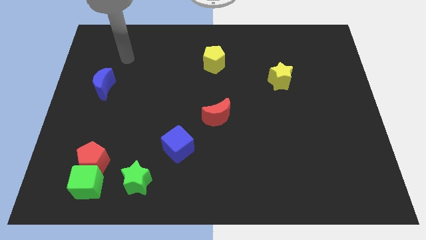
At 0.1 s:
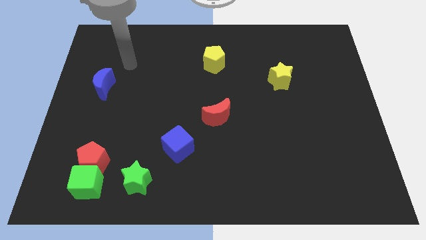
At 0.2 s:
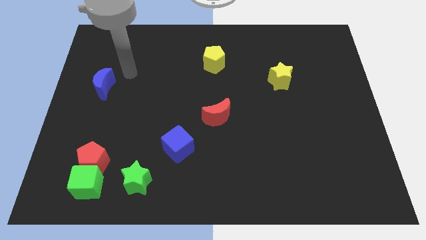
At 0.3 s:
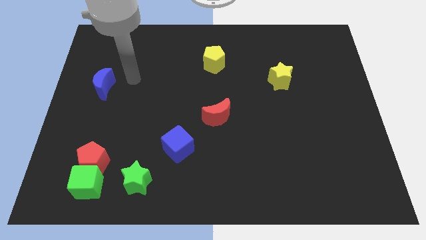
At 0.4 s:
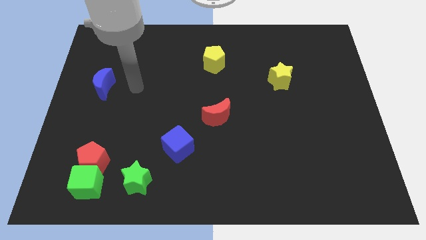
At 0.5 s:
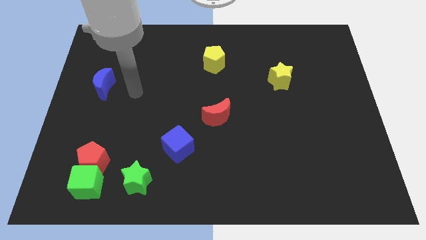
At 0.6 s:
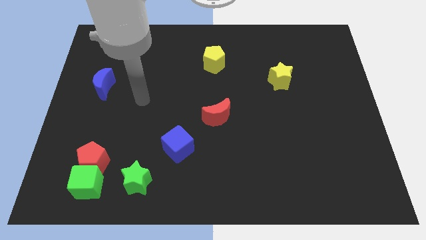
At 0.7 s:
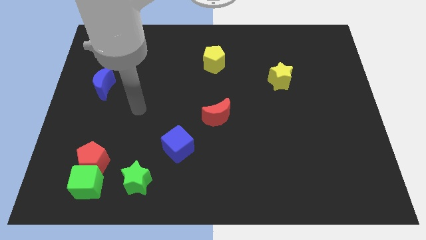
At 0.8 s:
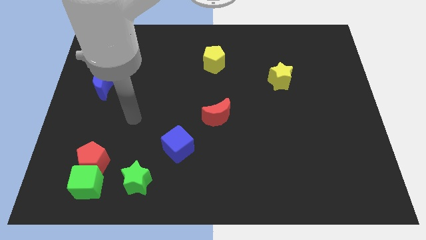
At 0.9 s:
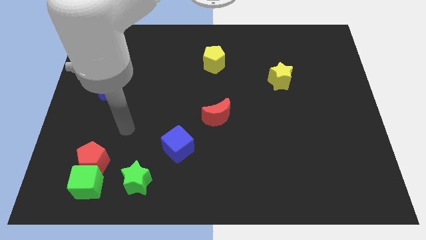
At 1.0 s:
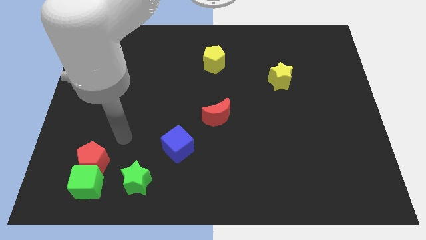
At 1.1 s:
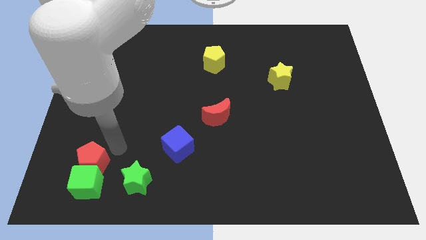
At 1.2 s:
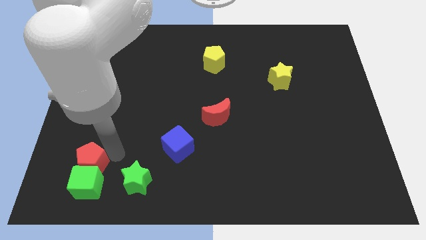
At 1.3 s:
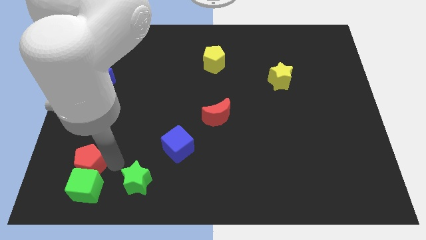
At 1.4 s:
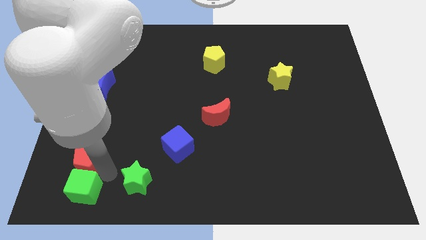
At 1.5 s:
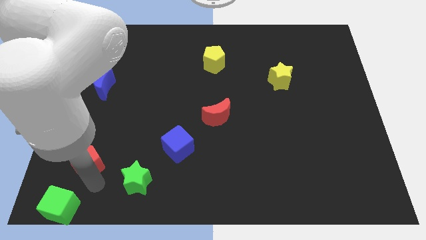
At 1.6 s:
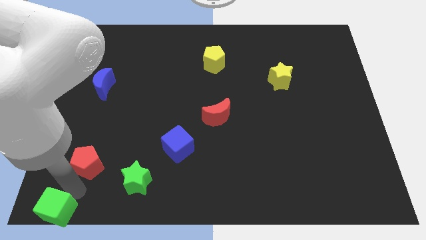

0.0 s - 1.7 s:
move the red pentagon away from the green cube

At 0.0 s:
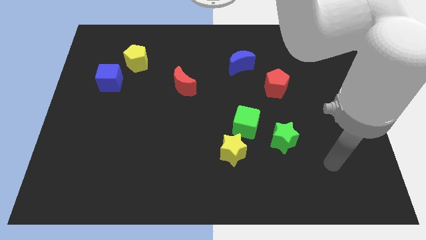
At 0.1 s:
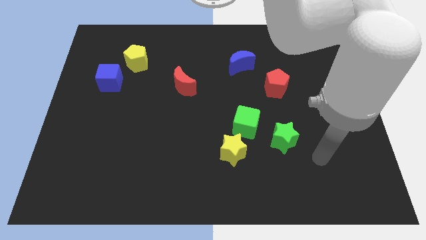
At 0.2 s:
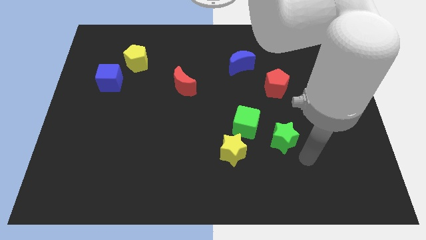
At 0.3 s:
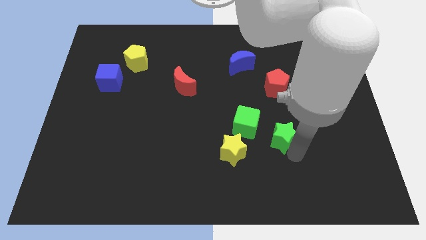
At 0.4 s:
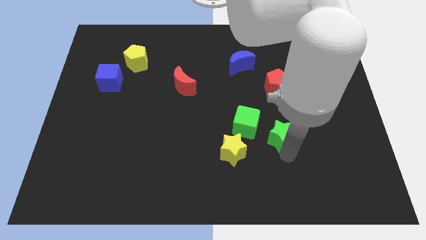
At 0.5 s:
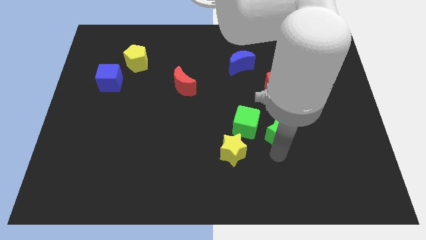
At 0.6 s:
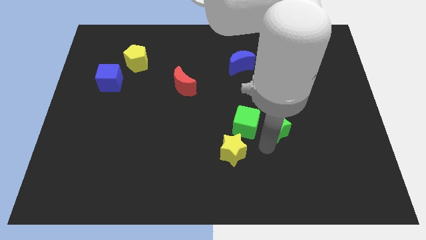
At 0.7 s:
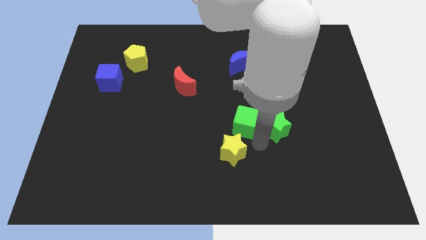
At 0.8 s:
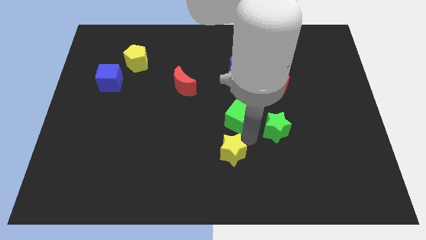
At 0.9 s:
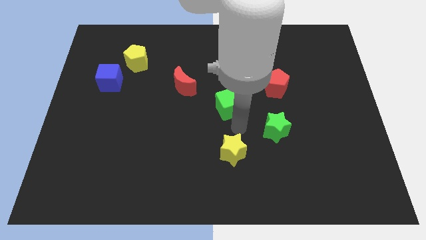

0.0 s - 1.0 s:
move the yellow star away from the green cube

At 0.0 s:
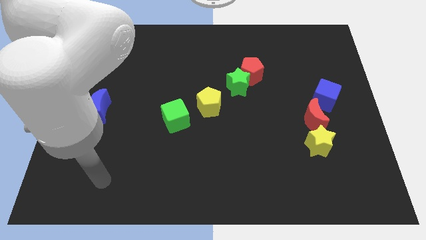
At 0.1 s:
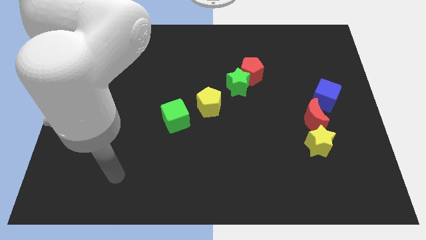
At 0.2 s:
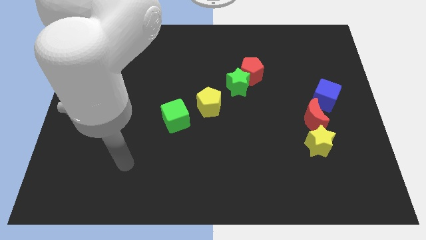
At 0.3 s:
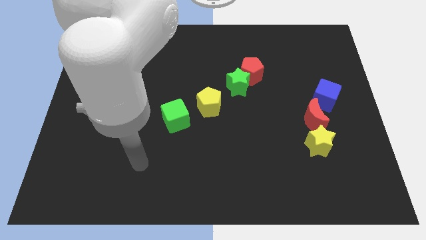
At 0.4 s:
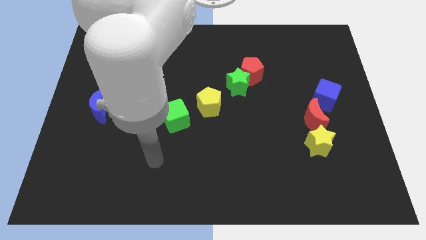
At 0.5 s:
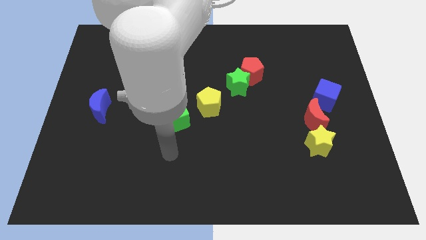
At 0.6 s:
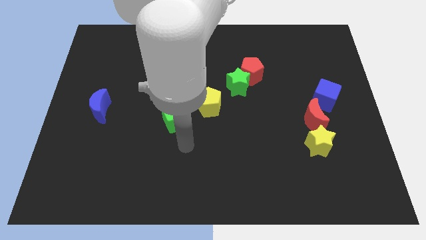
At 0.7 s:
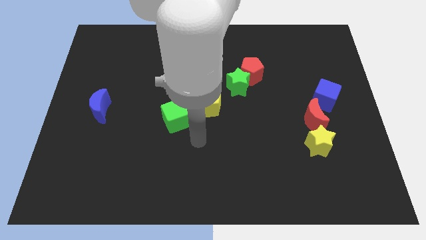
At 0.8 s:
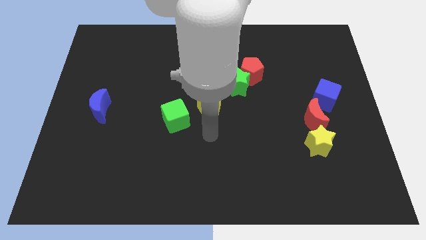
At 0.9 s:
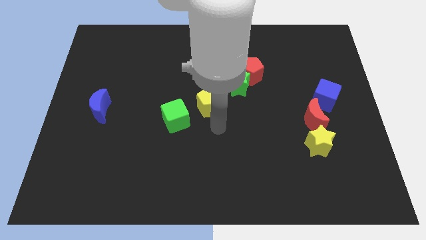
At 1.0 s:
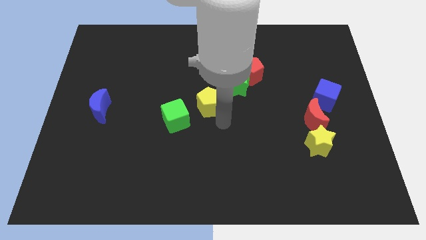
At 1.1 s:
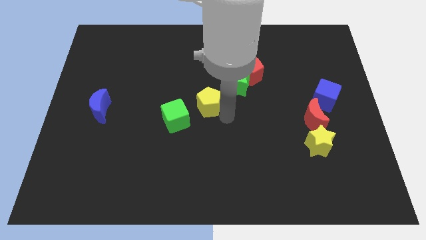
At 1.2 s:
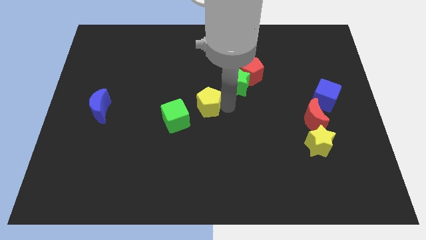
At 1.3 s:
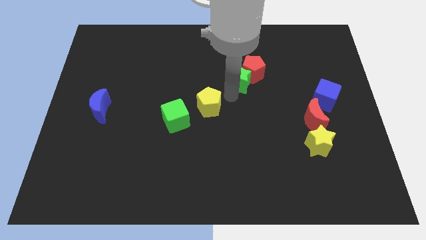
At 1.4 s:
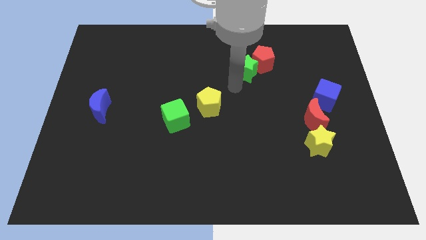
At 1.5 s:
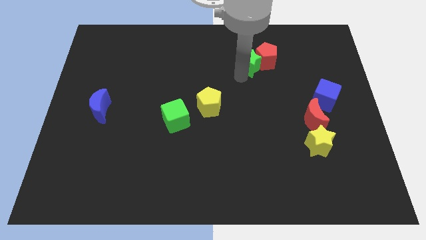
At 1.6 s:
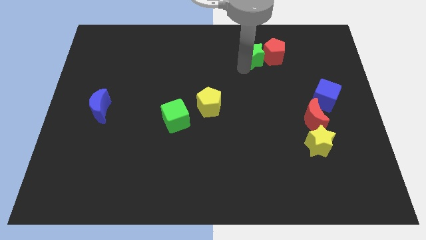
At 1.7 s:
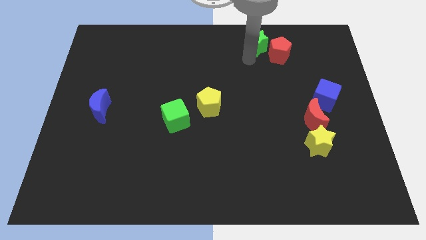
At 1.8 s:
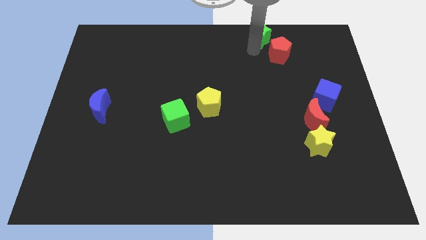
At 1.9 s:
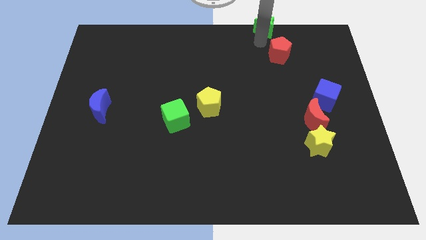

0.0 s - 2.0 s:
pull the red pentagon apart from the green star

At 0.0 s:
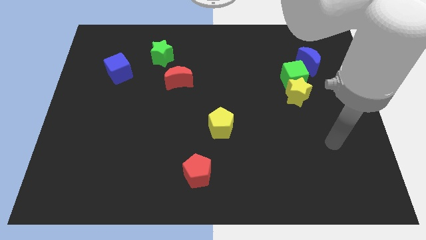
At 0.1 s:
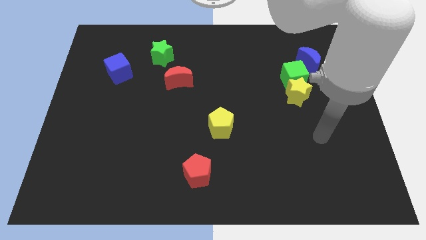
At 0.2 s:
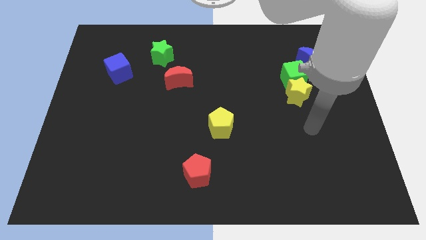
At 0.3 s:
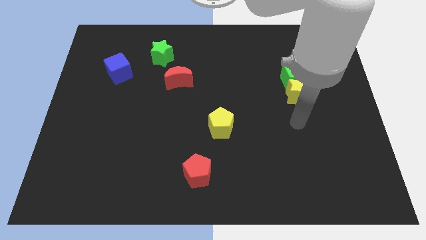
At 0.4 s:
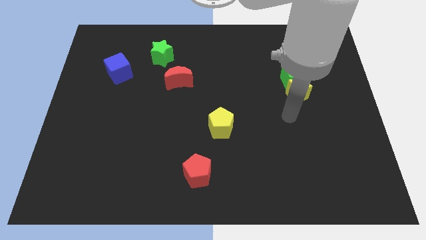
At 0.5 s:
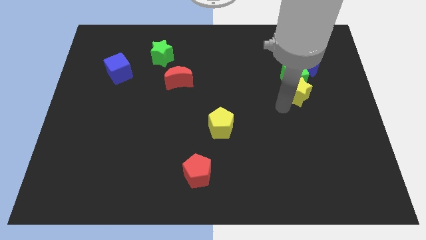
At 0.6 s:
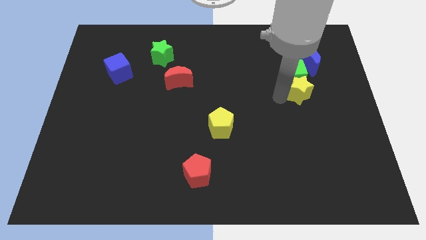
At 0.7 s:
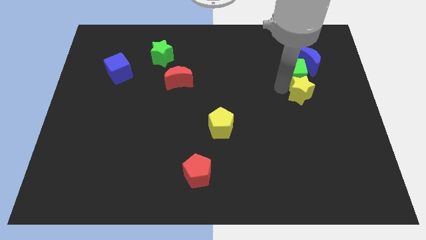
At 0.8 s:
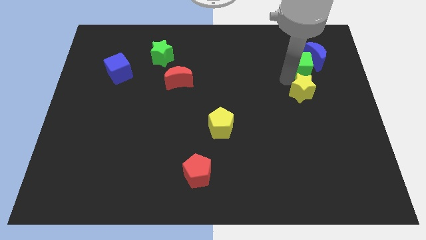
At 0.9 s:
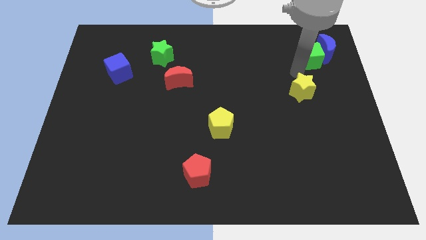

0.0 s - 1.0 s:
pull the yellow star apart from the green cube

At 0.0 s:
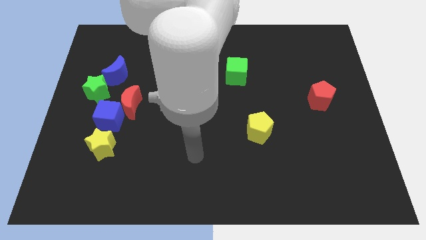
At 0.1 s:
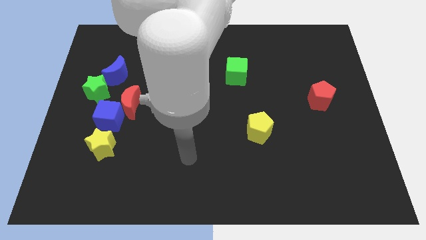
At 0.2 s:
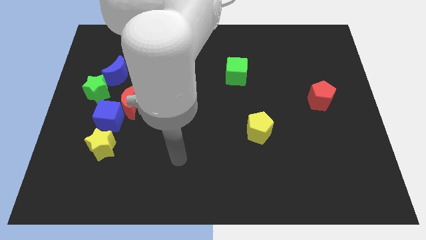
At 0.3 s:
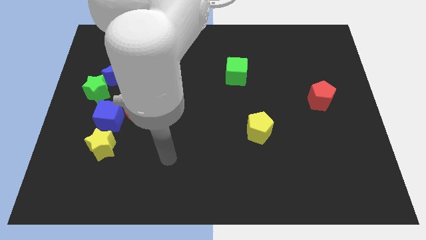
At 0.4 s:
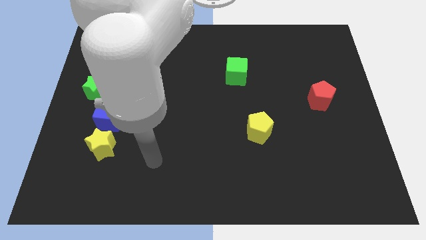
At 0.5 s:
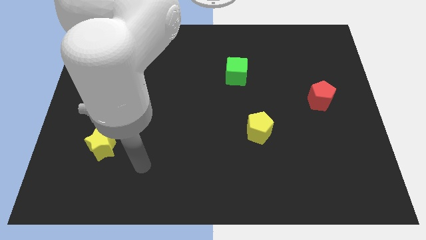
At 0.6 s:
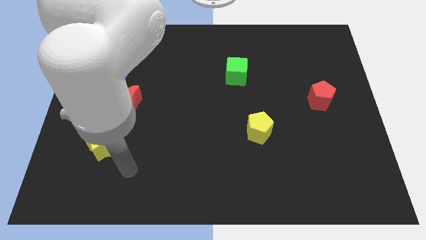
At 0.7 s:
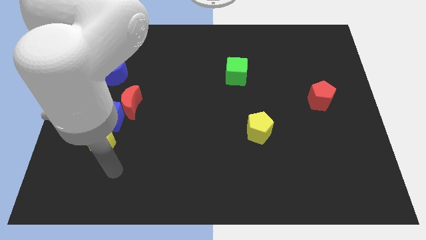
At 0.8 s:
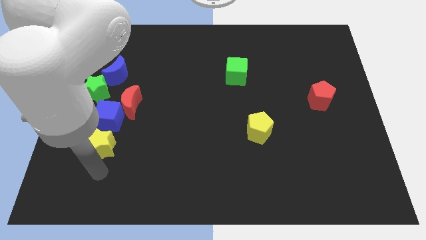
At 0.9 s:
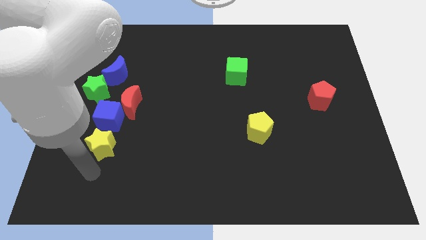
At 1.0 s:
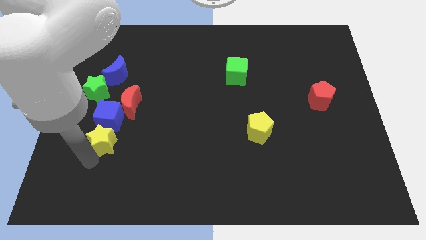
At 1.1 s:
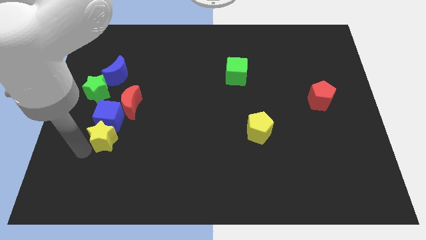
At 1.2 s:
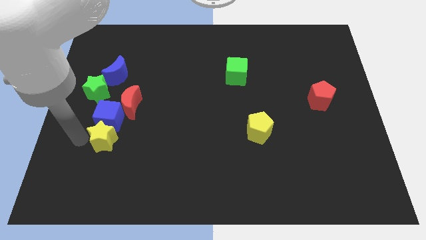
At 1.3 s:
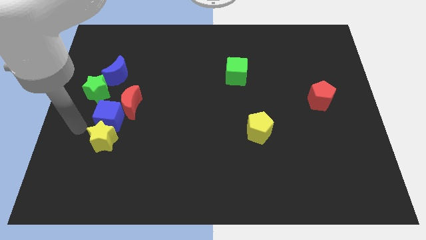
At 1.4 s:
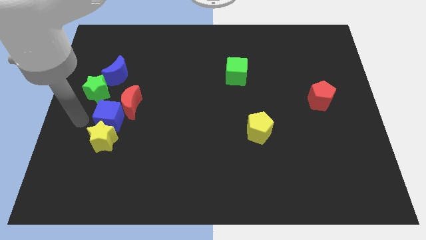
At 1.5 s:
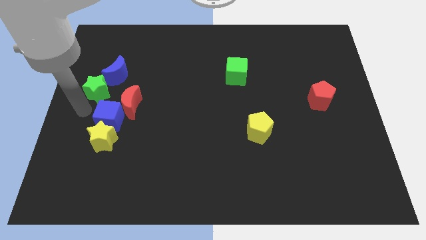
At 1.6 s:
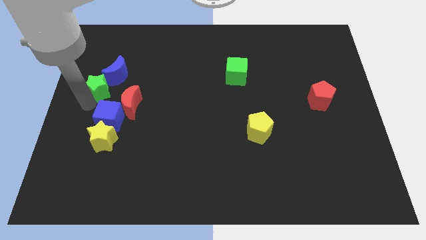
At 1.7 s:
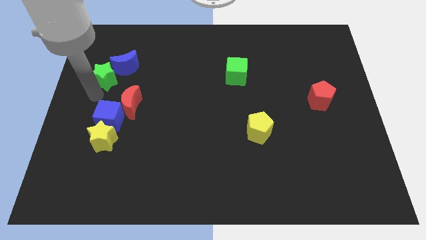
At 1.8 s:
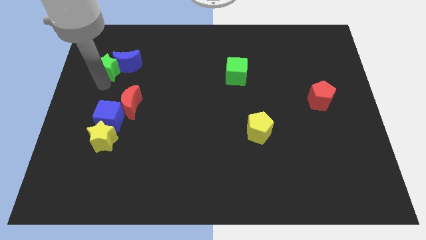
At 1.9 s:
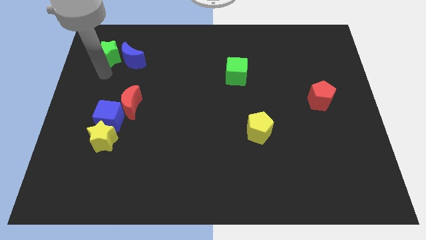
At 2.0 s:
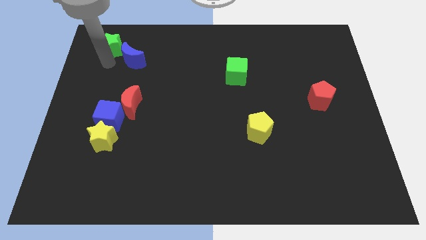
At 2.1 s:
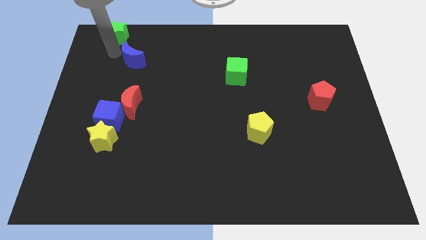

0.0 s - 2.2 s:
pull the blue moon apart from the green star

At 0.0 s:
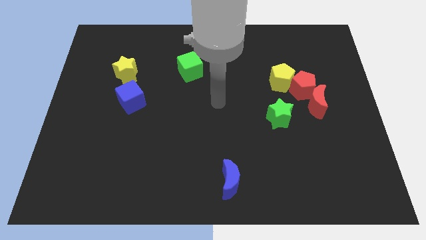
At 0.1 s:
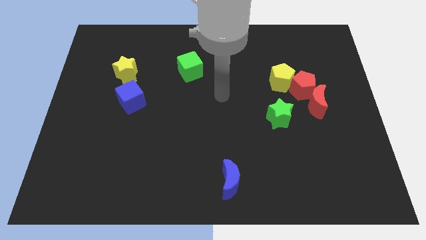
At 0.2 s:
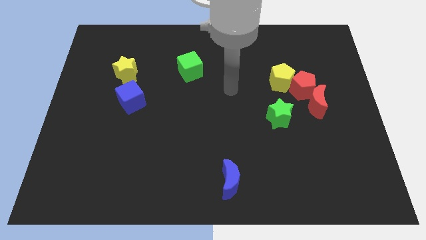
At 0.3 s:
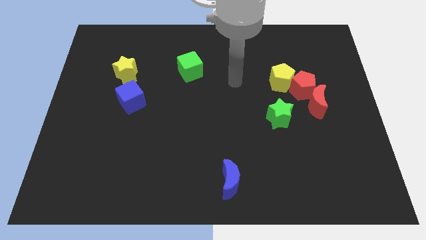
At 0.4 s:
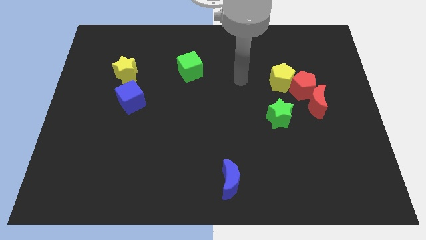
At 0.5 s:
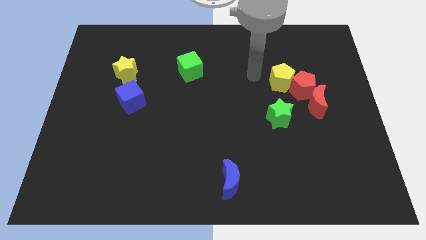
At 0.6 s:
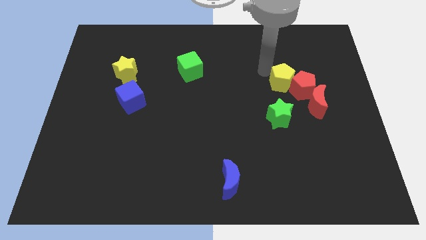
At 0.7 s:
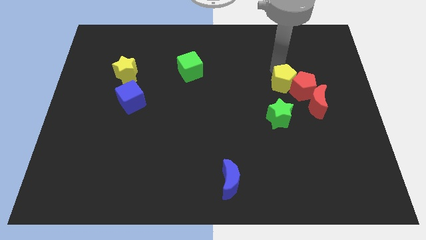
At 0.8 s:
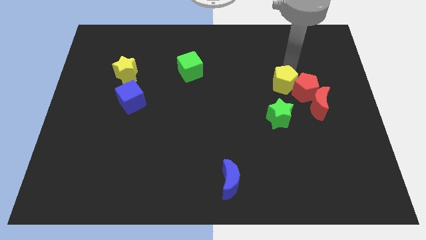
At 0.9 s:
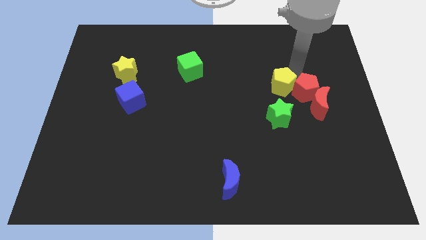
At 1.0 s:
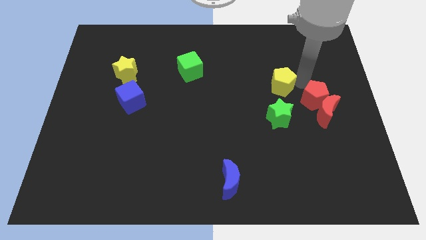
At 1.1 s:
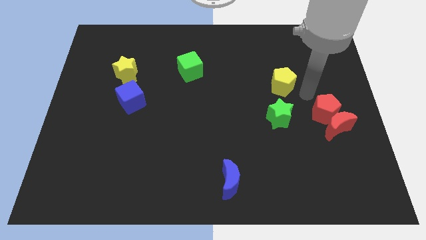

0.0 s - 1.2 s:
pull the yellow pentagon apart from the red pentagon
